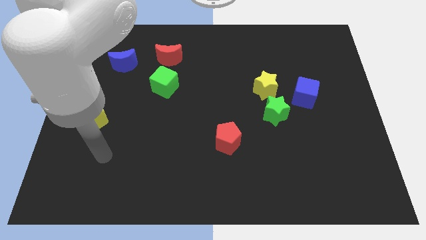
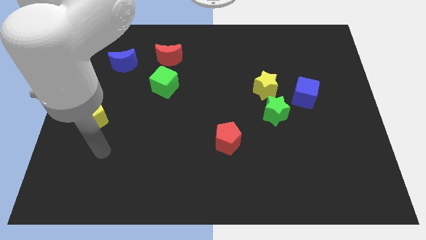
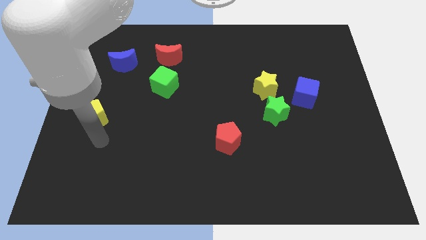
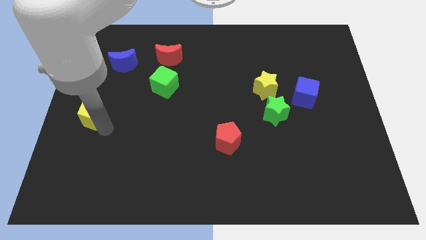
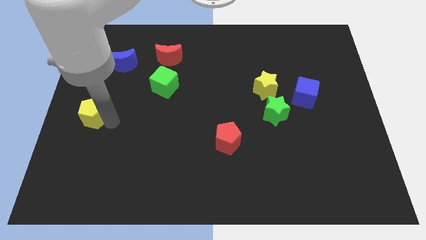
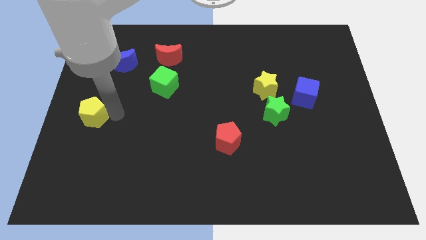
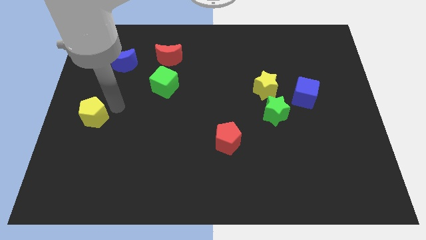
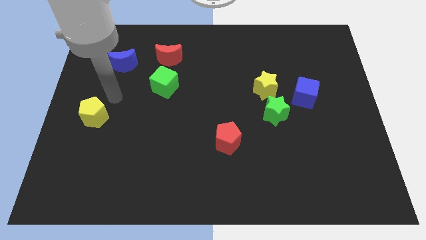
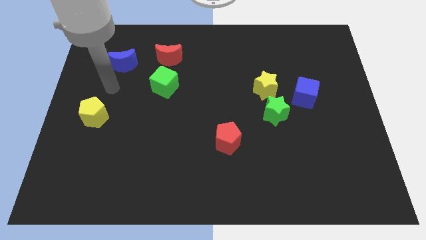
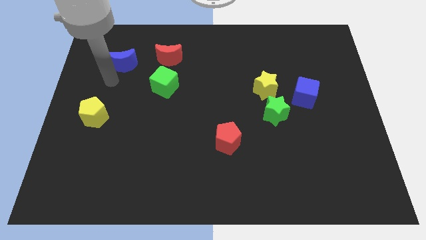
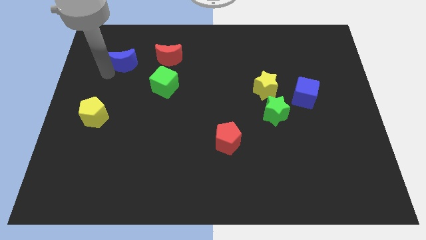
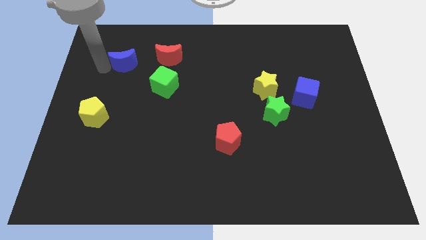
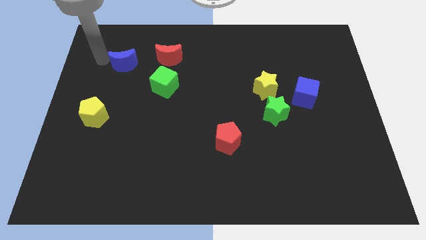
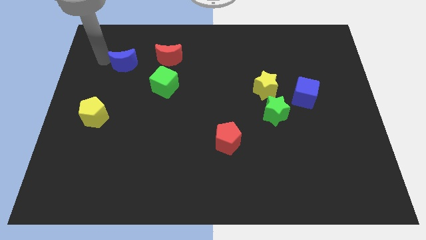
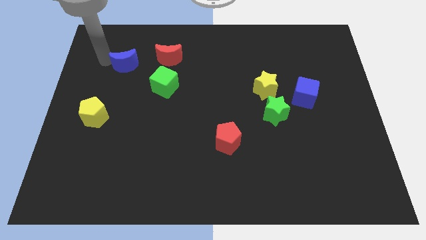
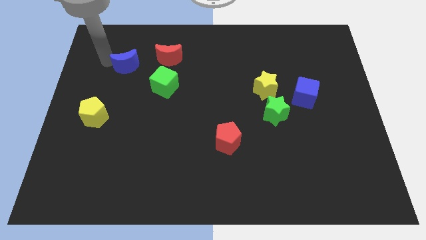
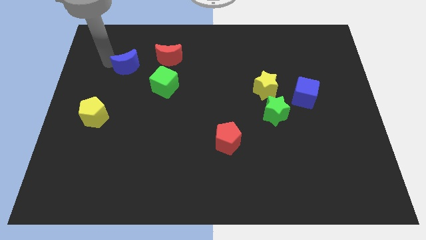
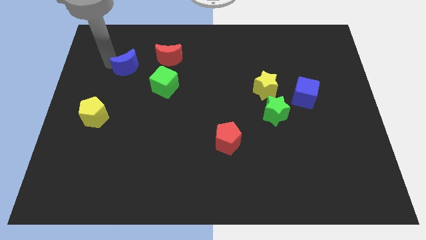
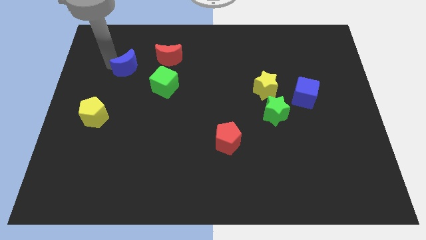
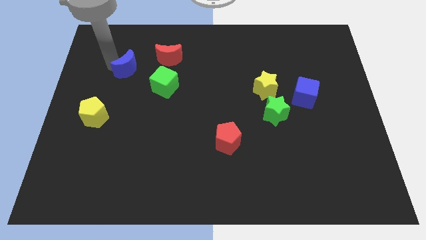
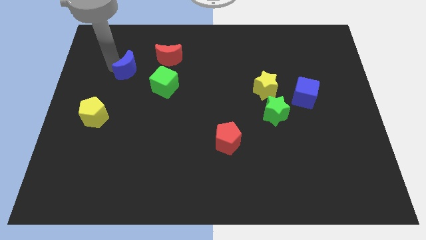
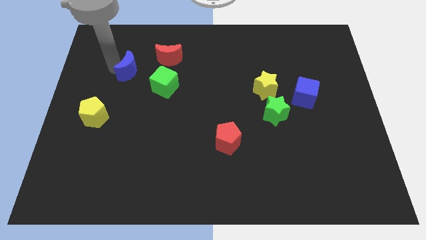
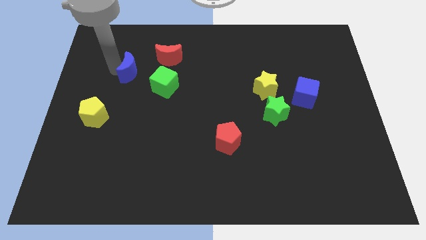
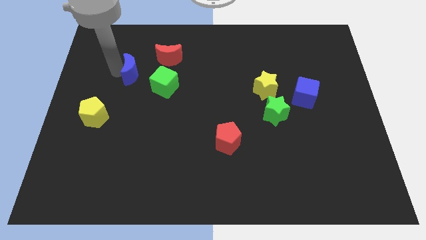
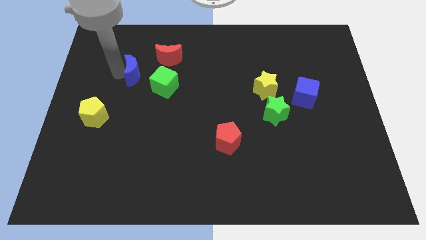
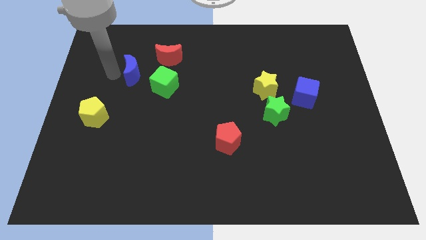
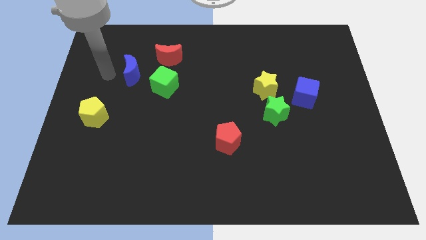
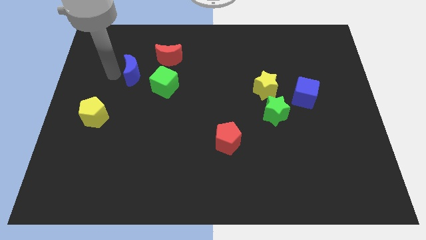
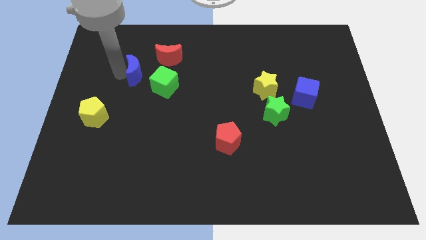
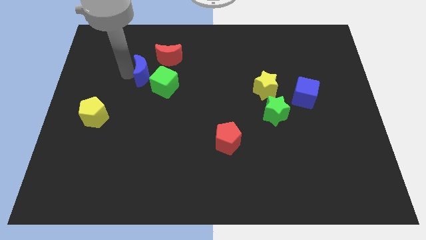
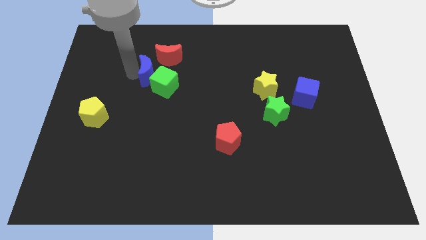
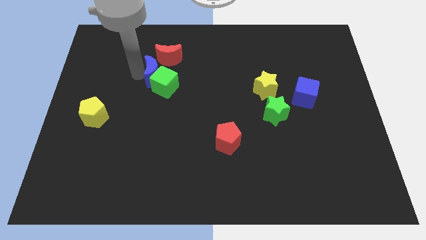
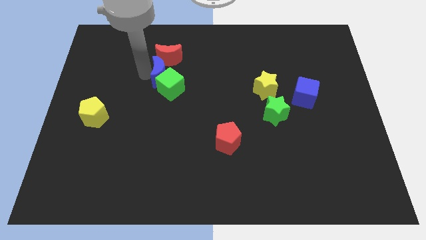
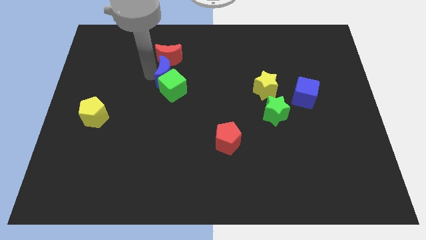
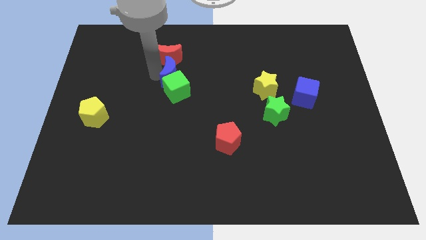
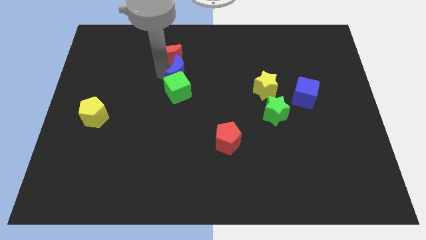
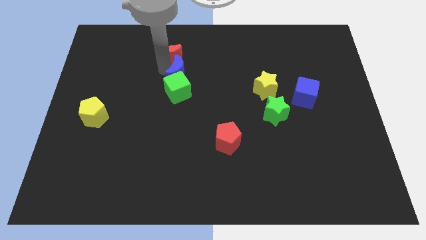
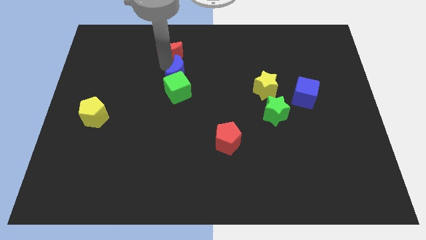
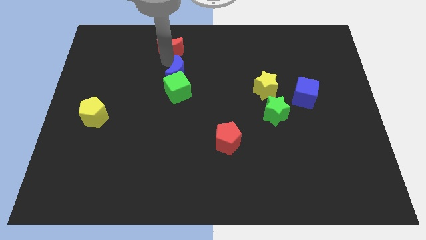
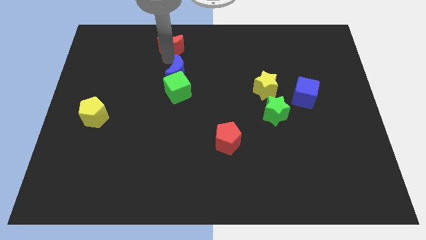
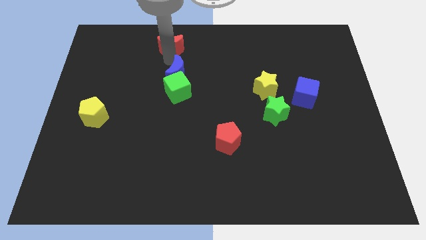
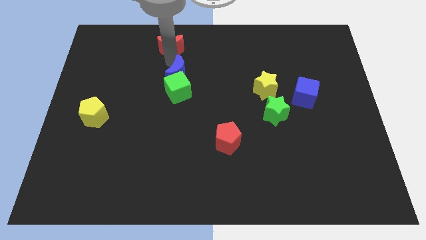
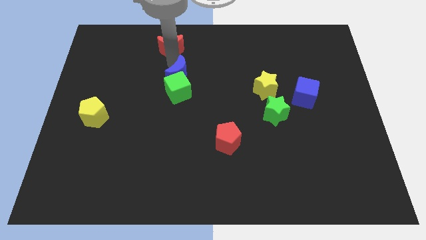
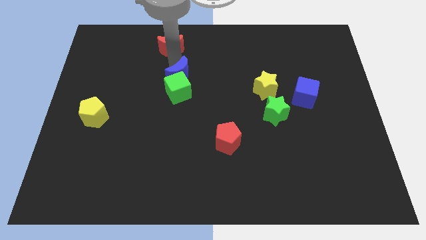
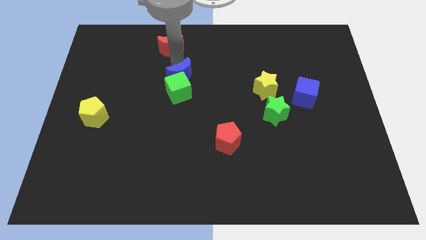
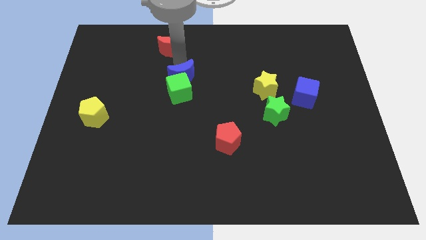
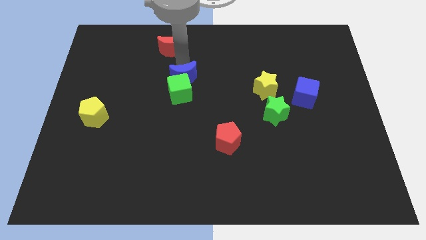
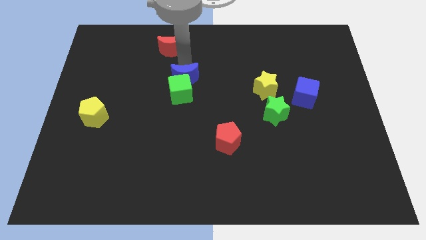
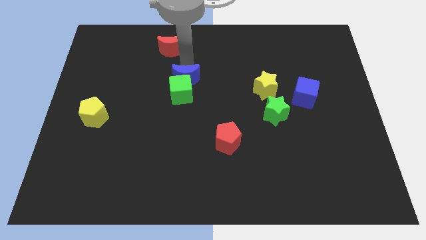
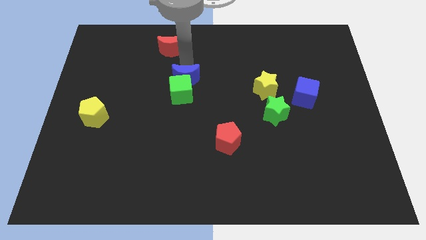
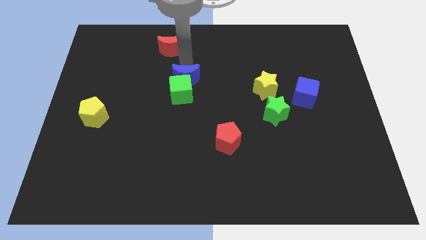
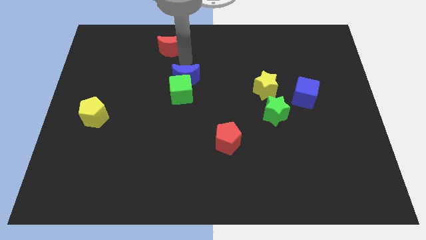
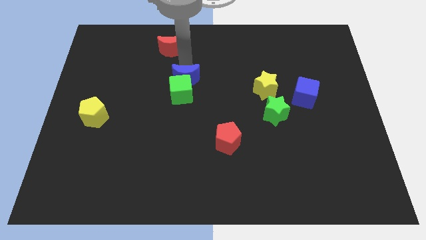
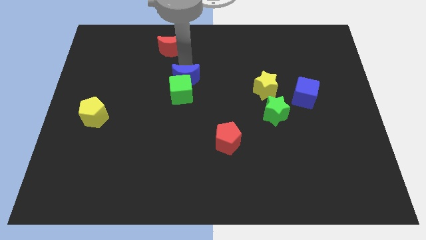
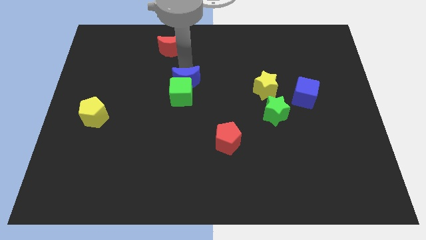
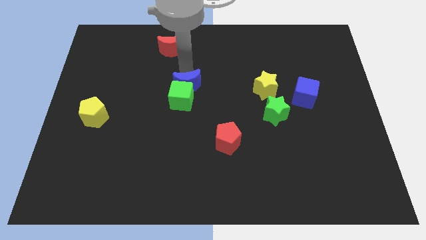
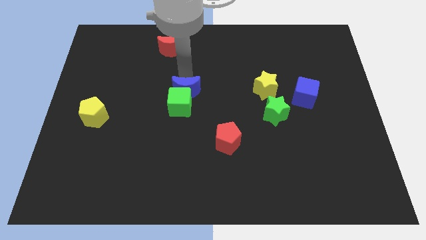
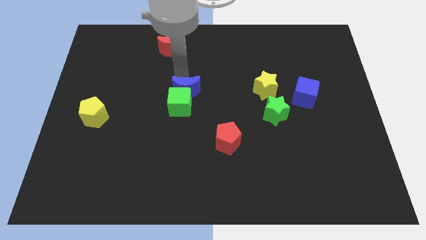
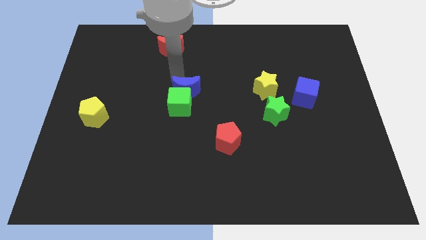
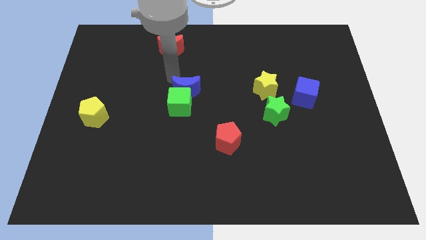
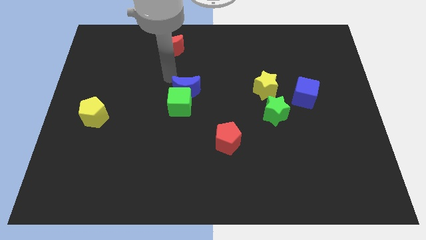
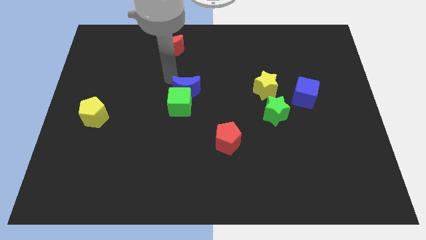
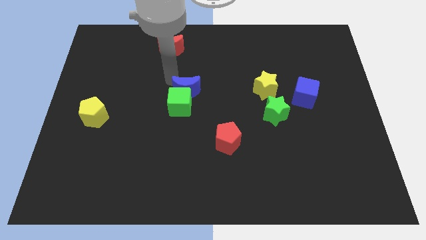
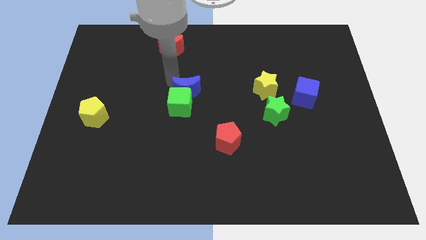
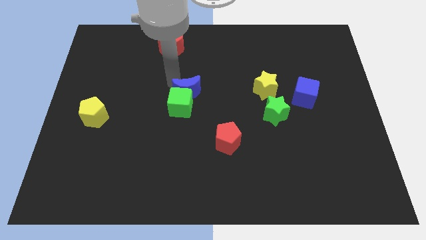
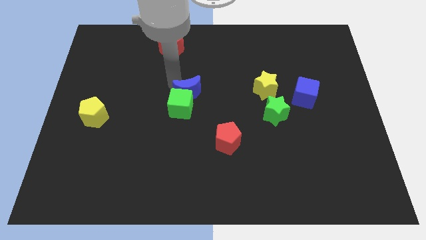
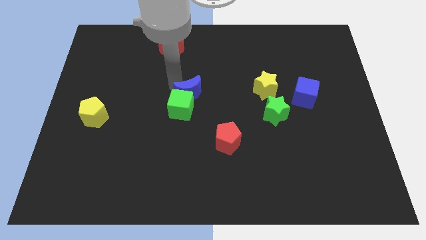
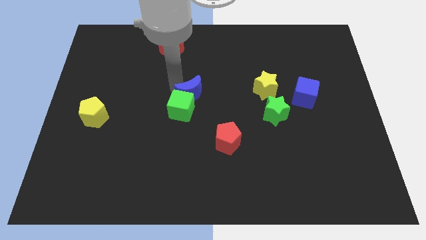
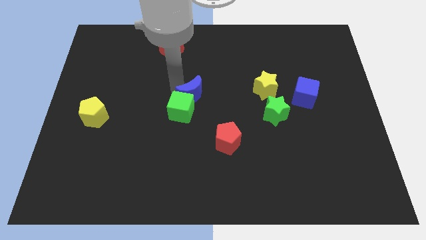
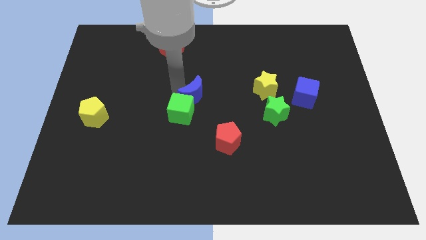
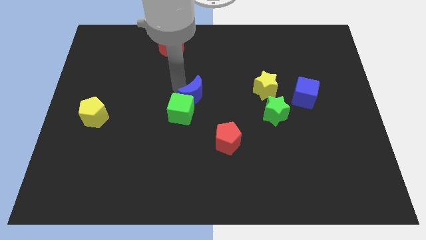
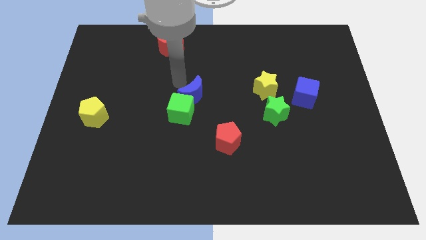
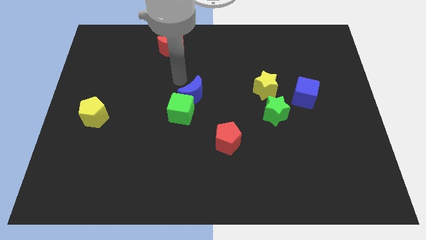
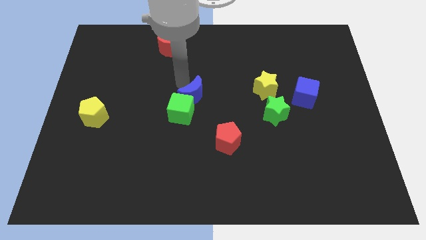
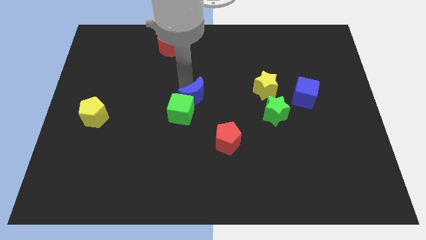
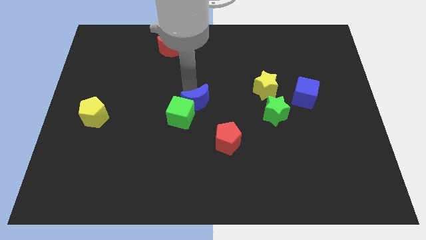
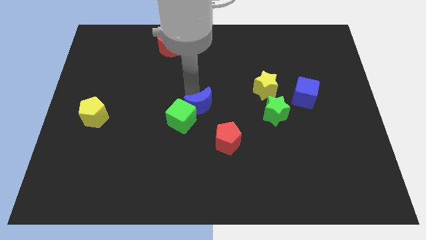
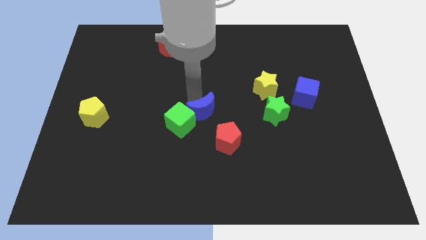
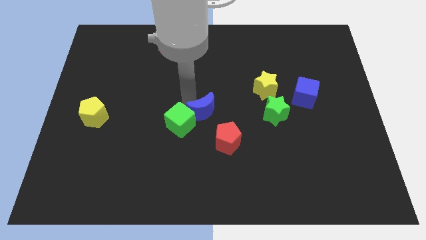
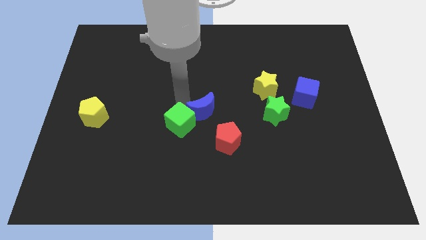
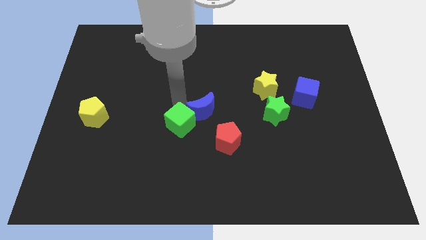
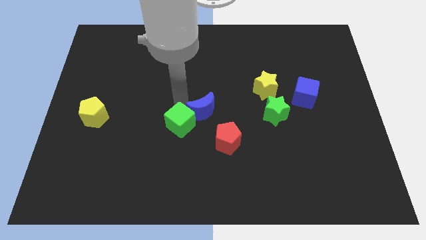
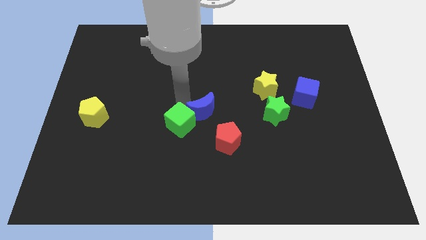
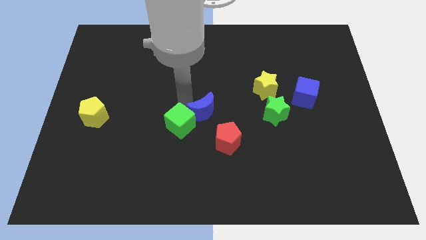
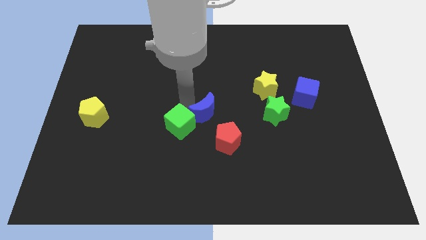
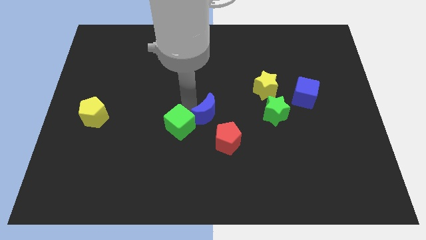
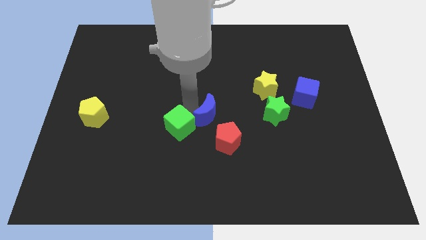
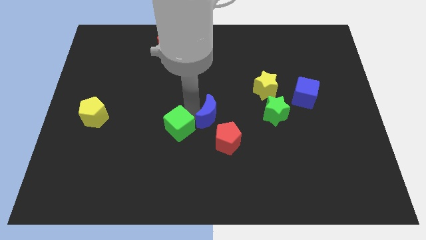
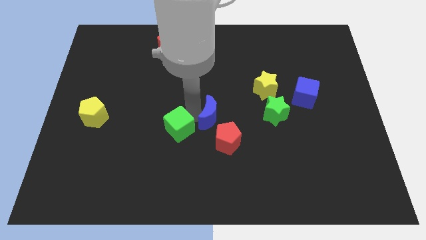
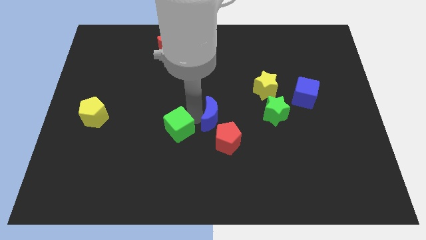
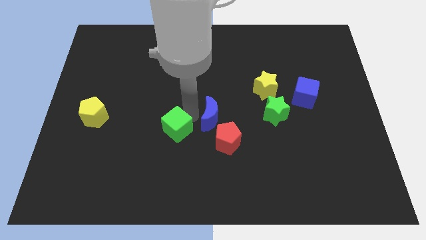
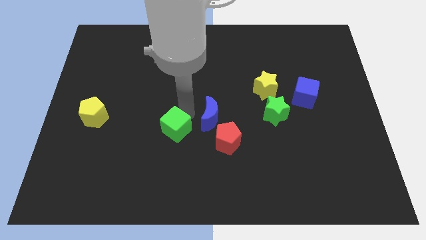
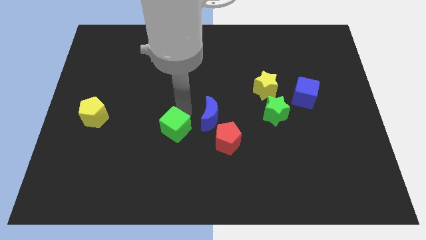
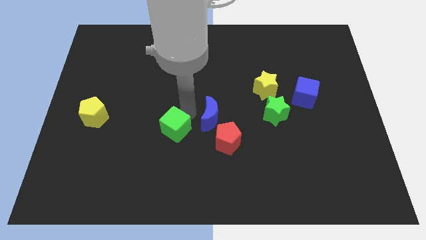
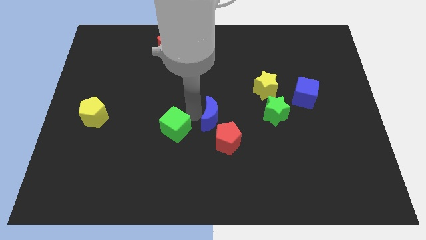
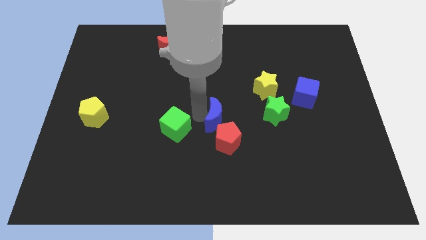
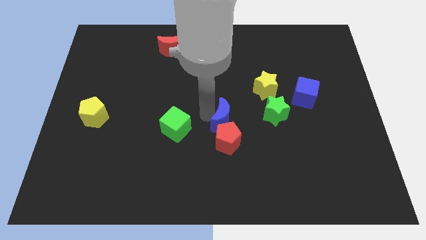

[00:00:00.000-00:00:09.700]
push the blue moon towards the red pentagon
